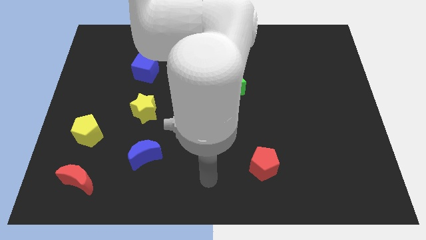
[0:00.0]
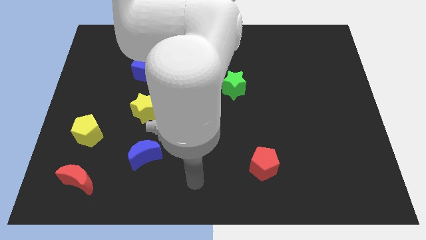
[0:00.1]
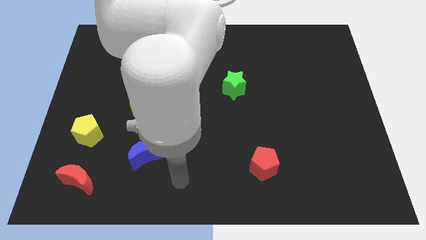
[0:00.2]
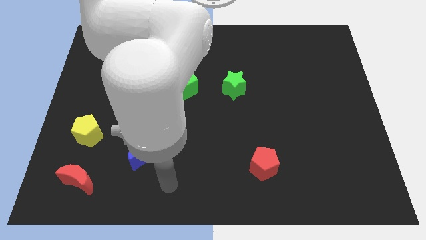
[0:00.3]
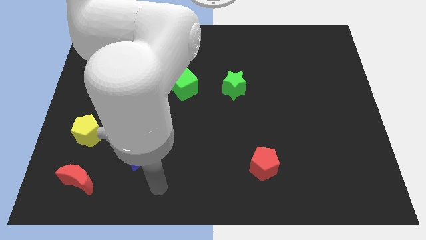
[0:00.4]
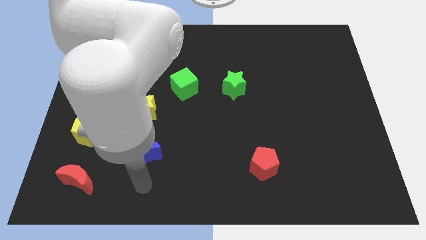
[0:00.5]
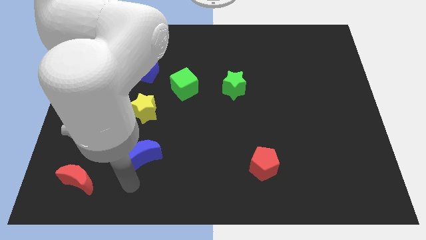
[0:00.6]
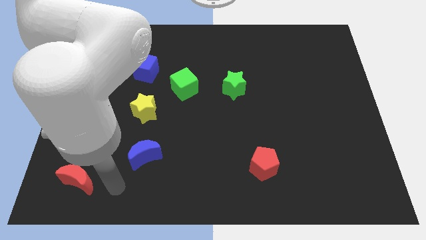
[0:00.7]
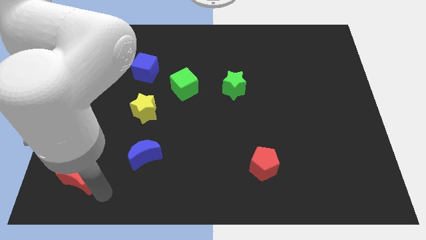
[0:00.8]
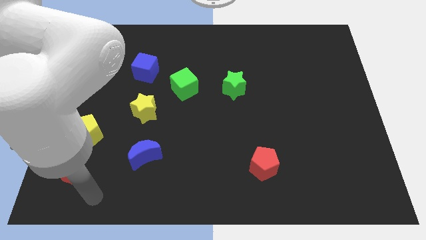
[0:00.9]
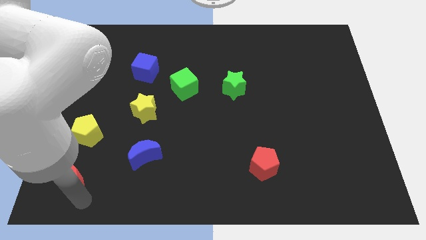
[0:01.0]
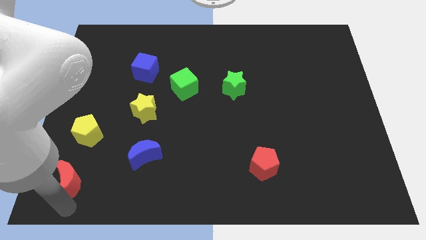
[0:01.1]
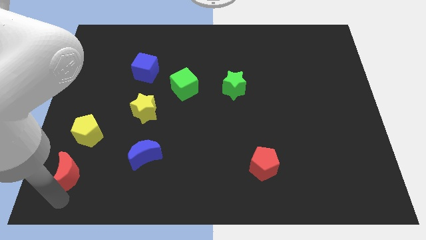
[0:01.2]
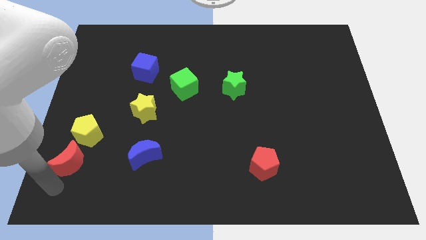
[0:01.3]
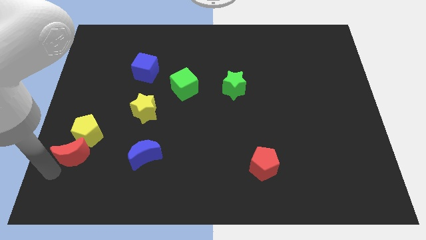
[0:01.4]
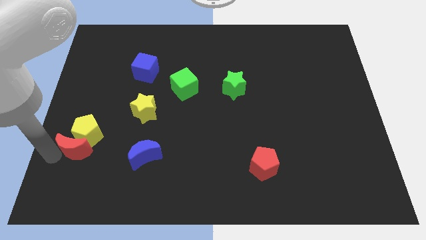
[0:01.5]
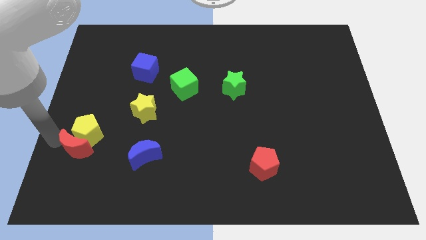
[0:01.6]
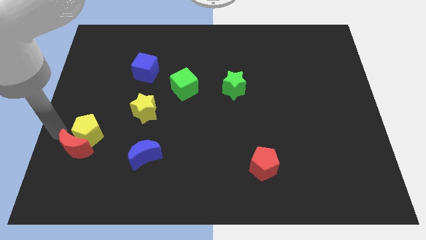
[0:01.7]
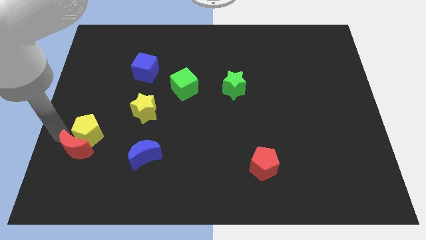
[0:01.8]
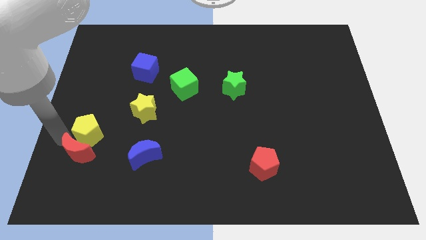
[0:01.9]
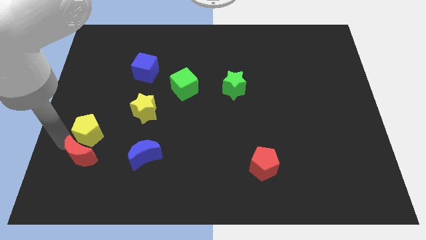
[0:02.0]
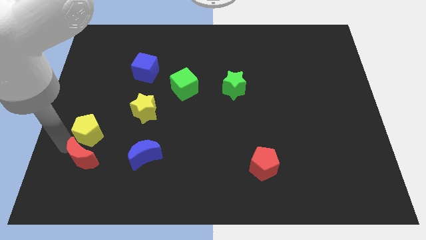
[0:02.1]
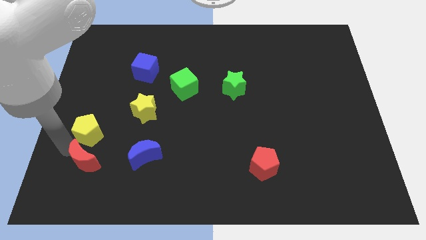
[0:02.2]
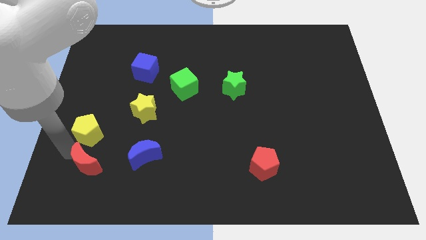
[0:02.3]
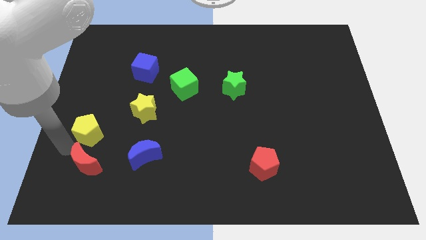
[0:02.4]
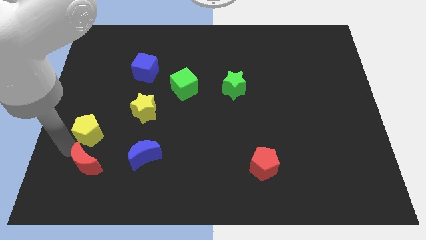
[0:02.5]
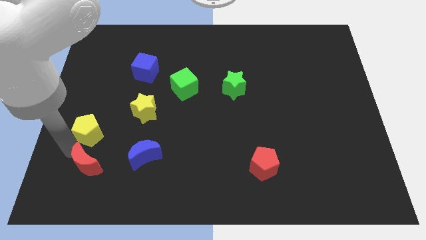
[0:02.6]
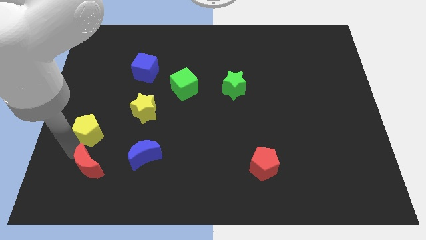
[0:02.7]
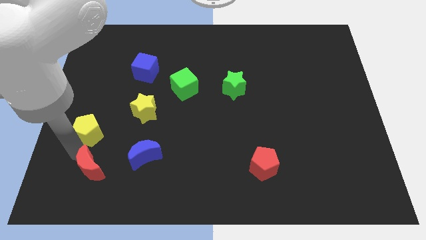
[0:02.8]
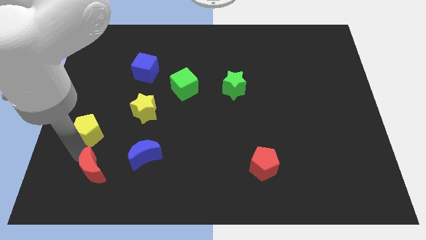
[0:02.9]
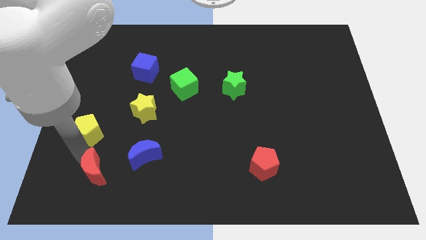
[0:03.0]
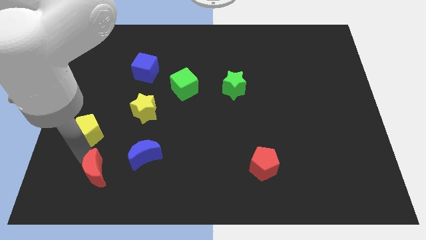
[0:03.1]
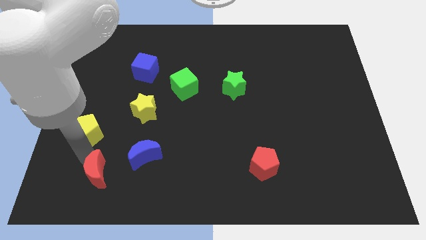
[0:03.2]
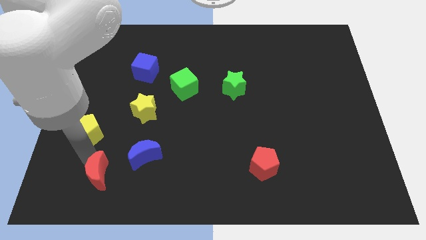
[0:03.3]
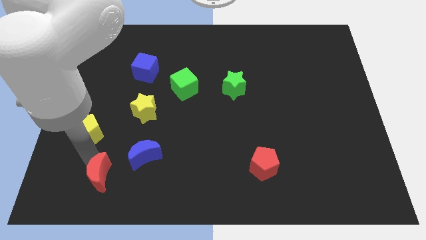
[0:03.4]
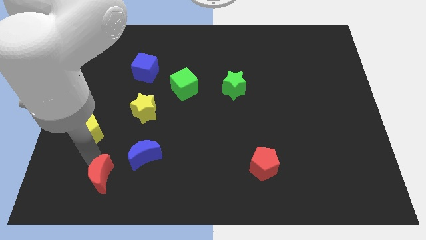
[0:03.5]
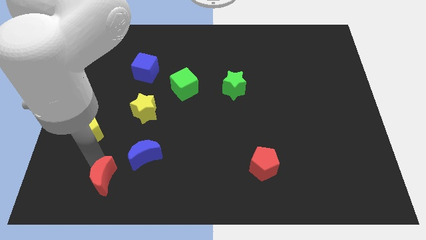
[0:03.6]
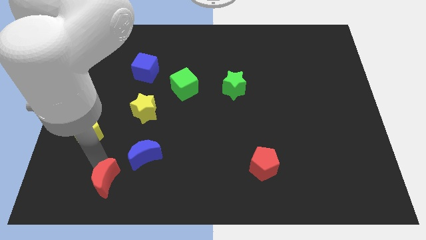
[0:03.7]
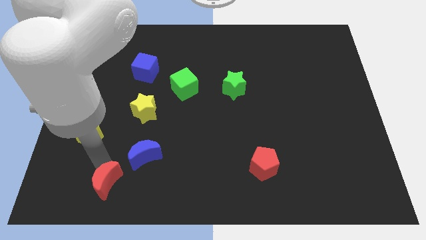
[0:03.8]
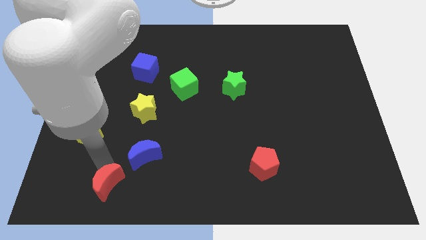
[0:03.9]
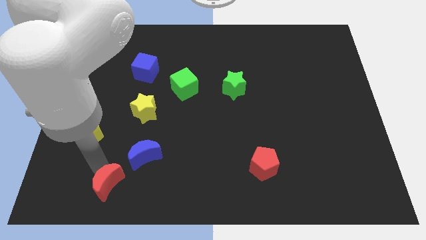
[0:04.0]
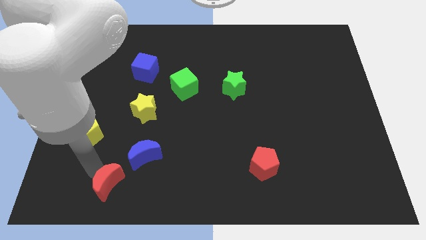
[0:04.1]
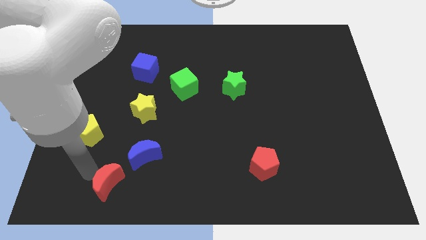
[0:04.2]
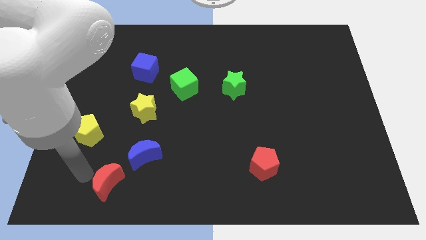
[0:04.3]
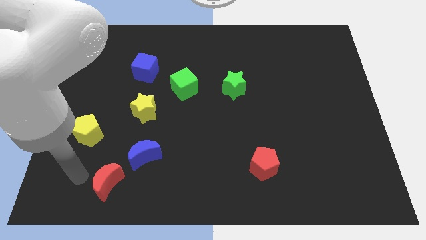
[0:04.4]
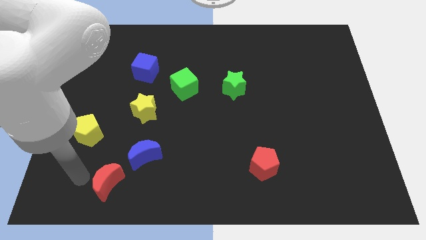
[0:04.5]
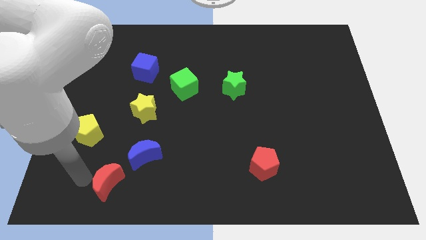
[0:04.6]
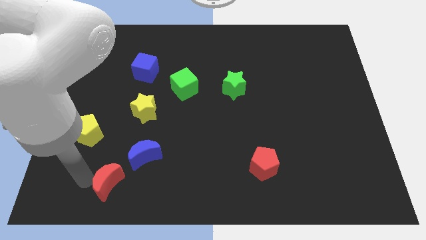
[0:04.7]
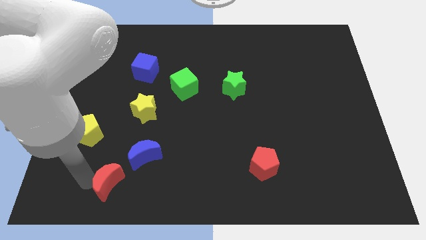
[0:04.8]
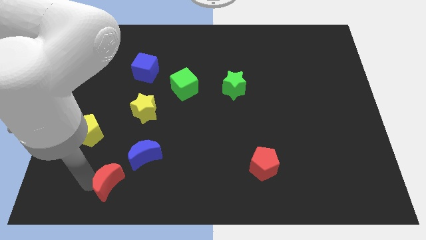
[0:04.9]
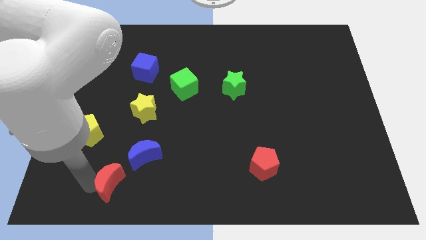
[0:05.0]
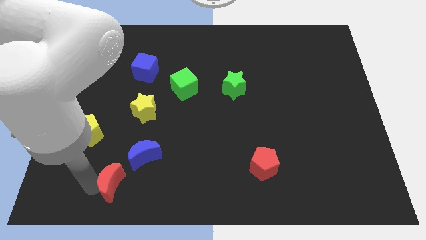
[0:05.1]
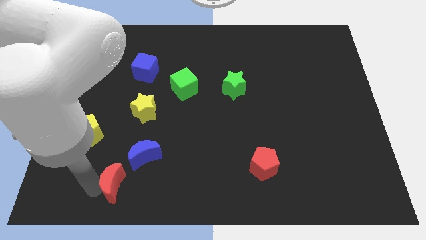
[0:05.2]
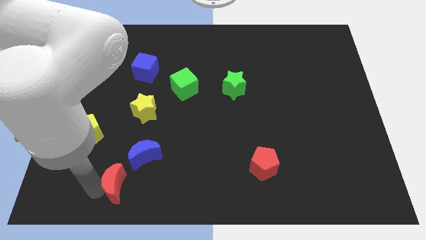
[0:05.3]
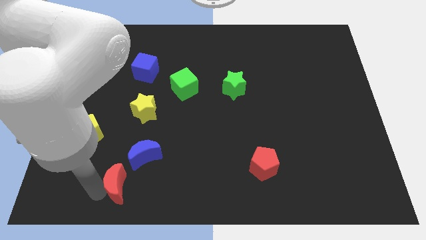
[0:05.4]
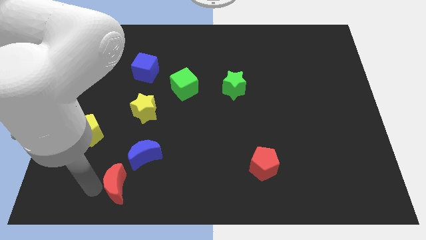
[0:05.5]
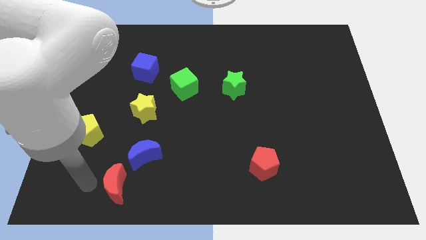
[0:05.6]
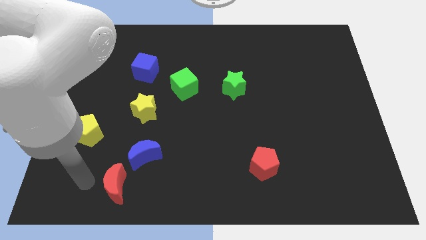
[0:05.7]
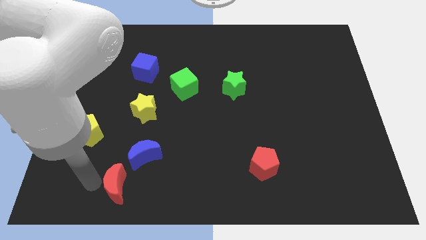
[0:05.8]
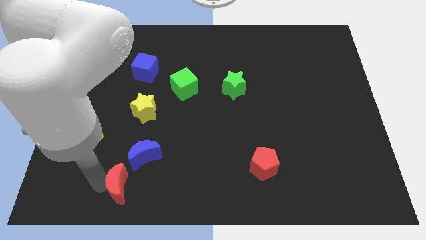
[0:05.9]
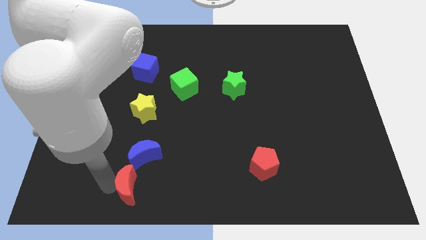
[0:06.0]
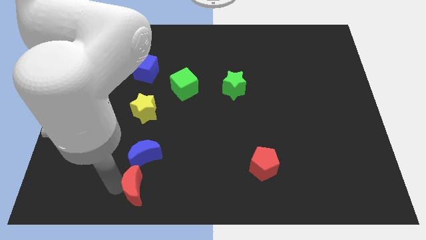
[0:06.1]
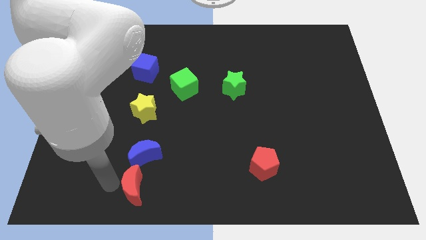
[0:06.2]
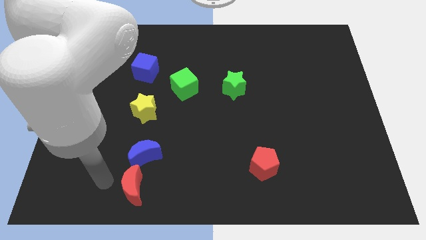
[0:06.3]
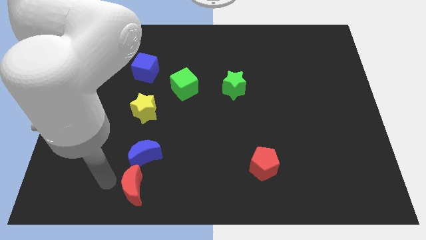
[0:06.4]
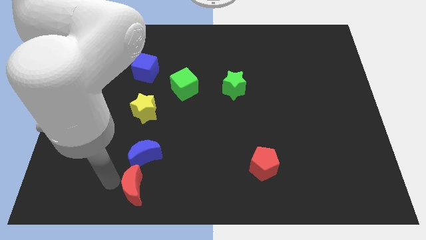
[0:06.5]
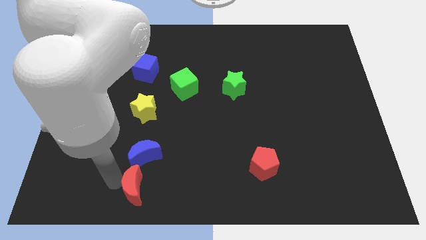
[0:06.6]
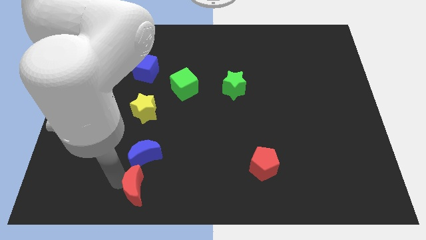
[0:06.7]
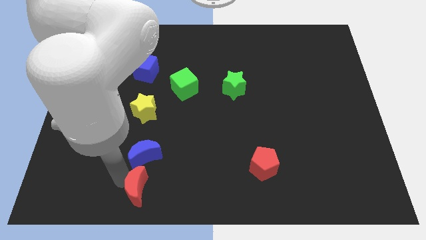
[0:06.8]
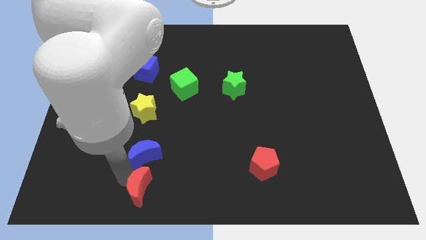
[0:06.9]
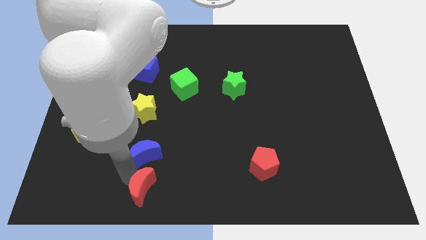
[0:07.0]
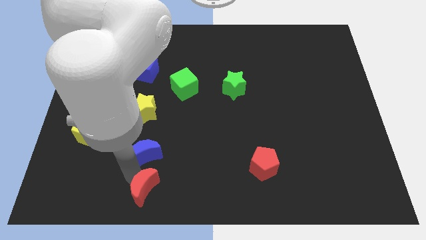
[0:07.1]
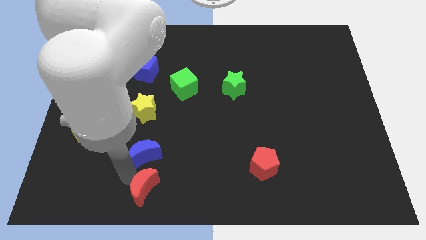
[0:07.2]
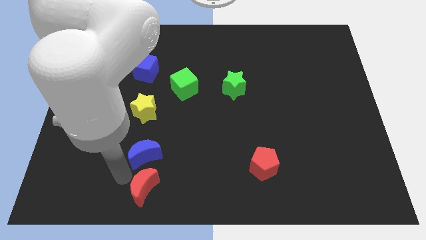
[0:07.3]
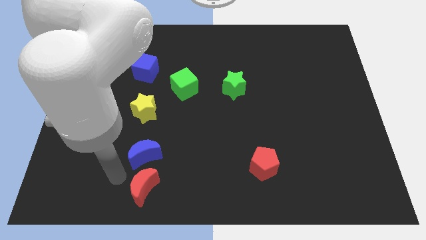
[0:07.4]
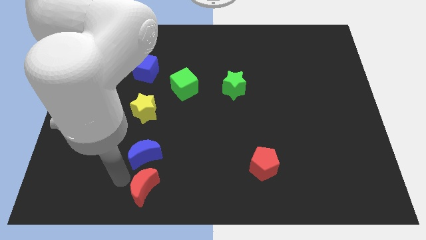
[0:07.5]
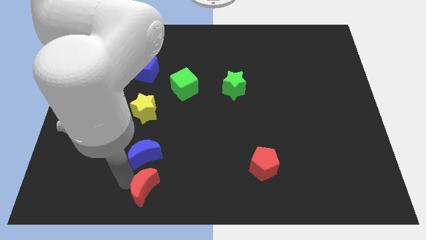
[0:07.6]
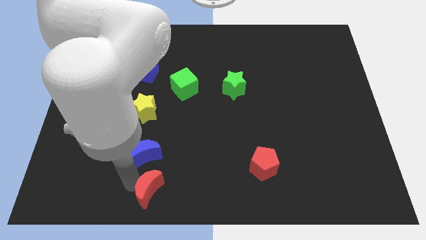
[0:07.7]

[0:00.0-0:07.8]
move the red moon to the bottom side
